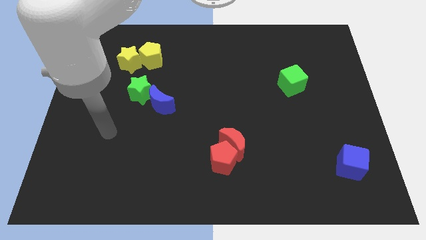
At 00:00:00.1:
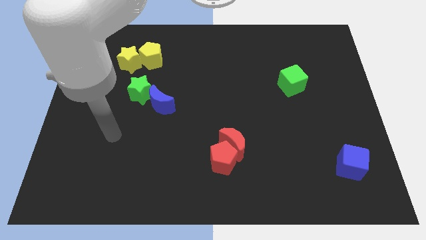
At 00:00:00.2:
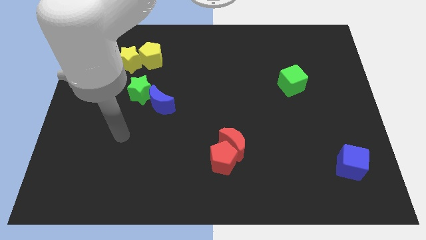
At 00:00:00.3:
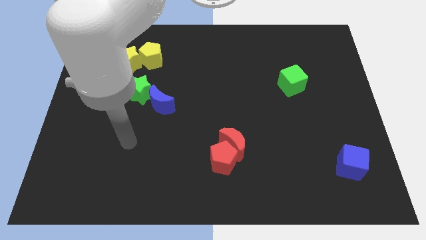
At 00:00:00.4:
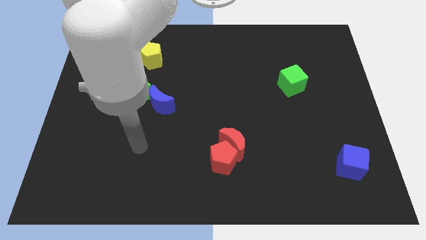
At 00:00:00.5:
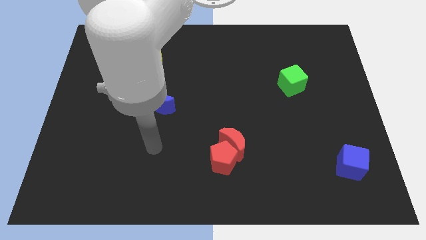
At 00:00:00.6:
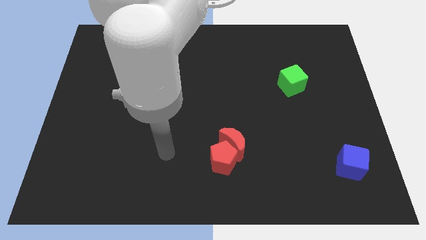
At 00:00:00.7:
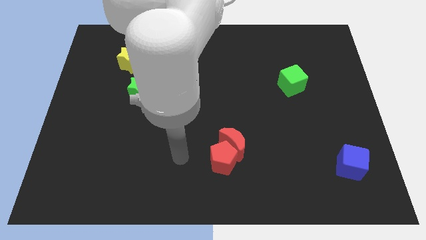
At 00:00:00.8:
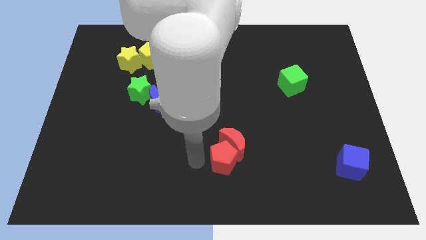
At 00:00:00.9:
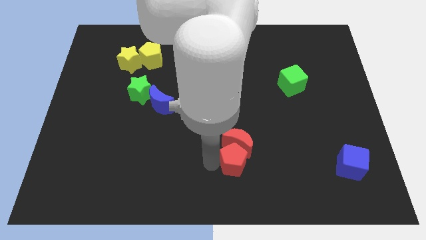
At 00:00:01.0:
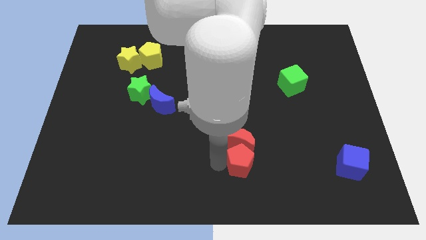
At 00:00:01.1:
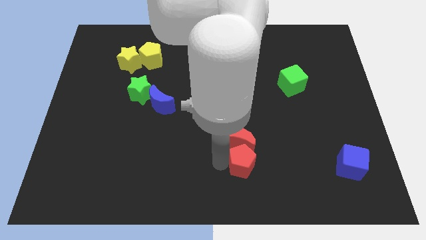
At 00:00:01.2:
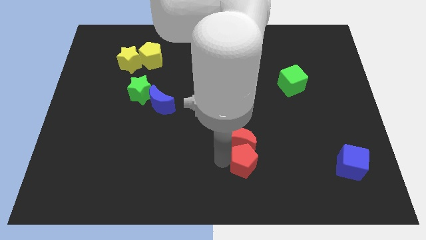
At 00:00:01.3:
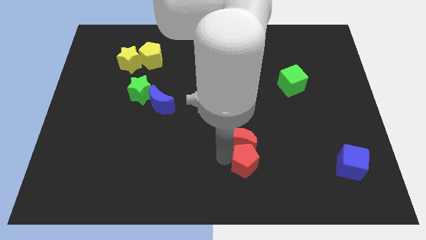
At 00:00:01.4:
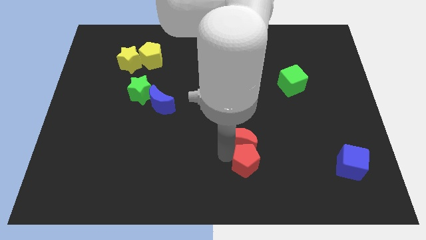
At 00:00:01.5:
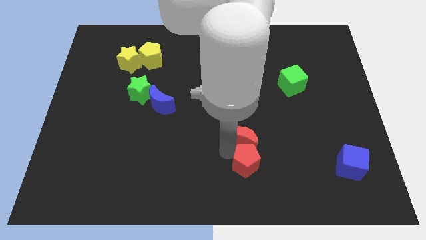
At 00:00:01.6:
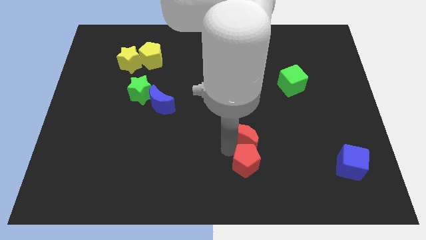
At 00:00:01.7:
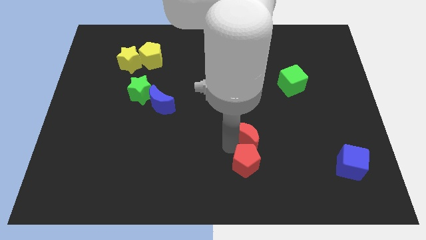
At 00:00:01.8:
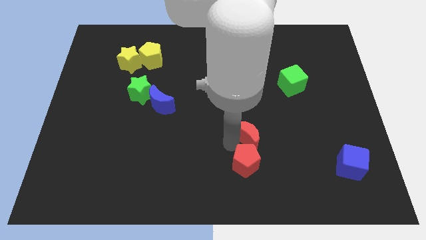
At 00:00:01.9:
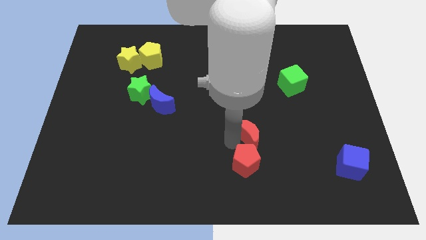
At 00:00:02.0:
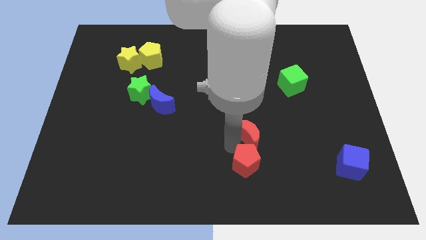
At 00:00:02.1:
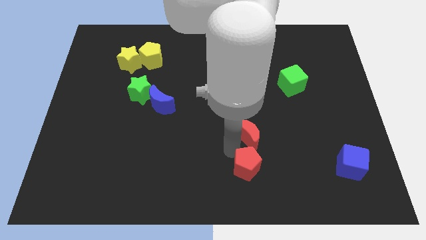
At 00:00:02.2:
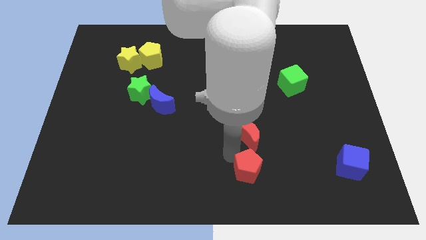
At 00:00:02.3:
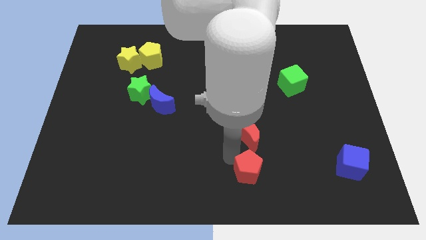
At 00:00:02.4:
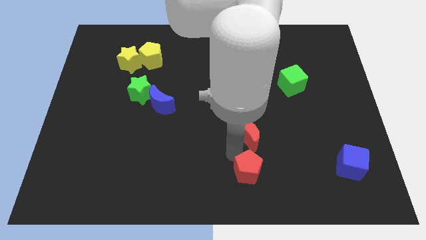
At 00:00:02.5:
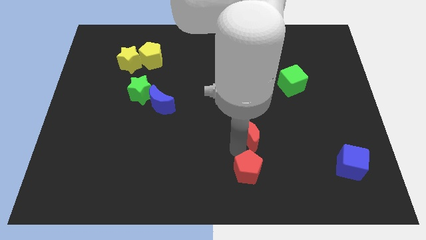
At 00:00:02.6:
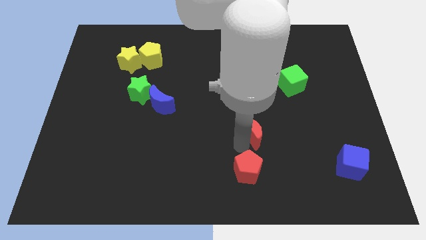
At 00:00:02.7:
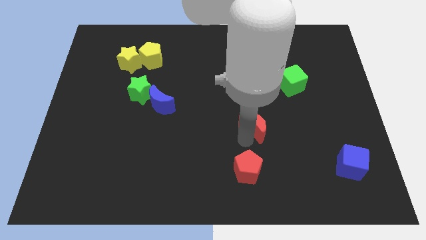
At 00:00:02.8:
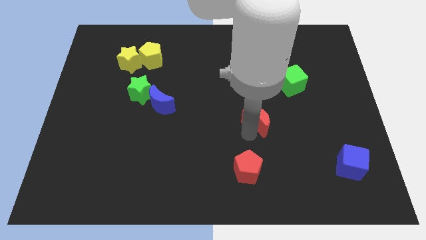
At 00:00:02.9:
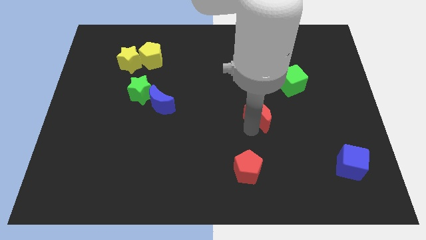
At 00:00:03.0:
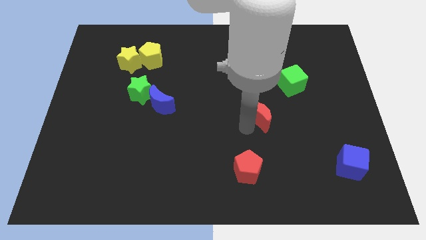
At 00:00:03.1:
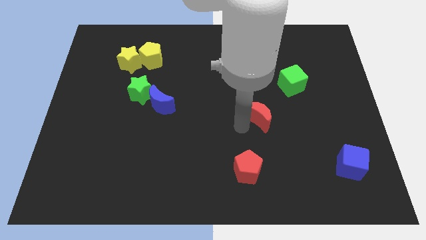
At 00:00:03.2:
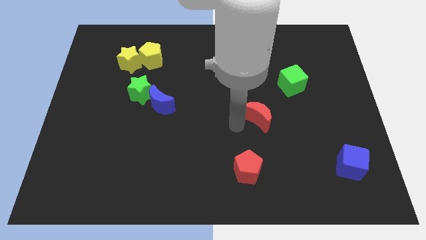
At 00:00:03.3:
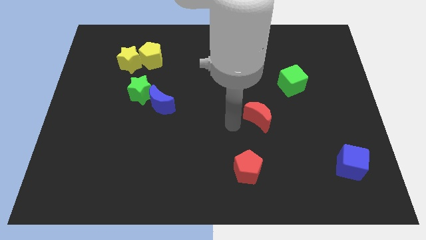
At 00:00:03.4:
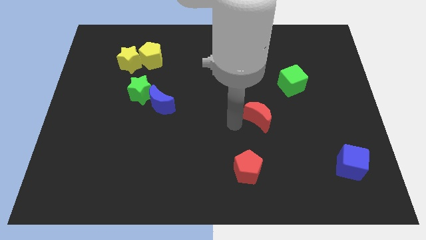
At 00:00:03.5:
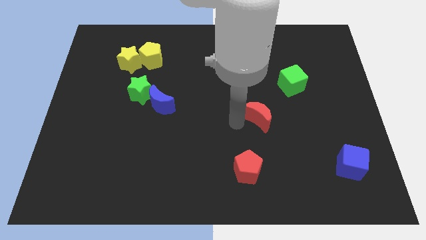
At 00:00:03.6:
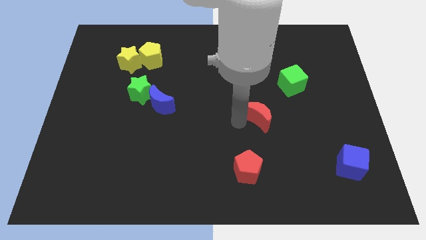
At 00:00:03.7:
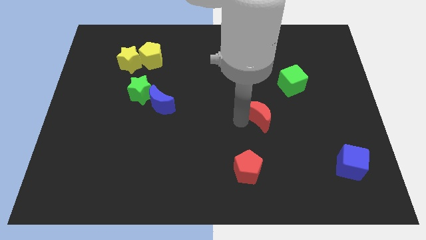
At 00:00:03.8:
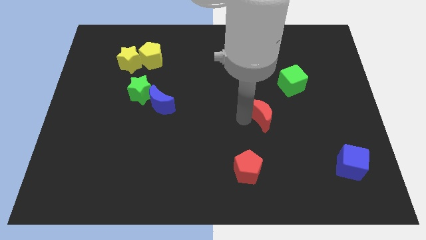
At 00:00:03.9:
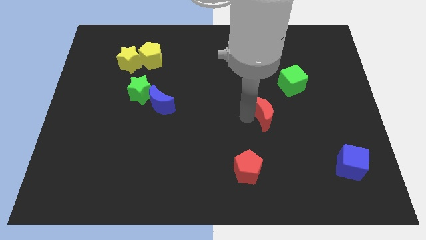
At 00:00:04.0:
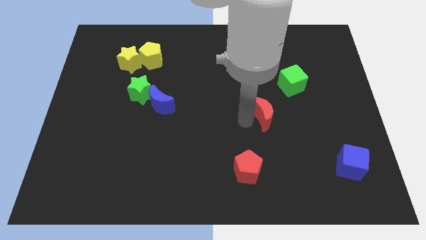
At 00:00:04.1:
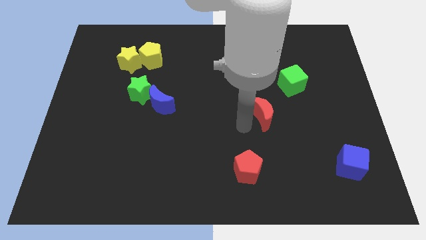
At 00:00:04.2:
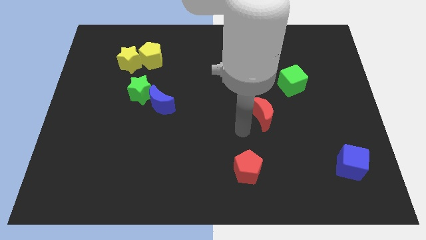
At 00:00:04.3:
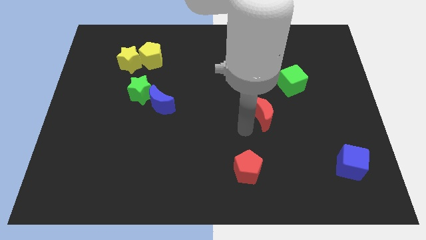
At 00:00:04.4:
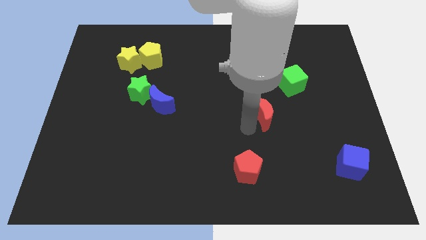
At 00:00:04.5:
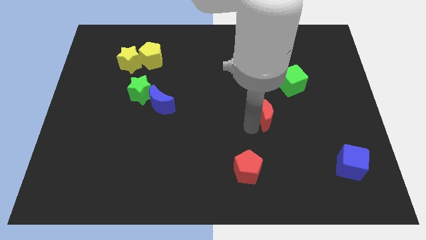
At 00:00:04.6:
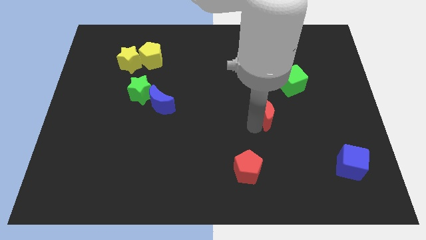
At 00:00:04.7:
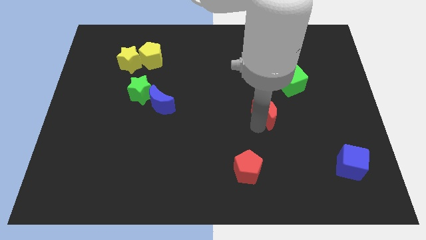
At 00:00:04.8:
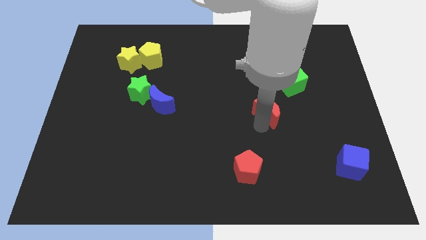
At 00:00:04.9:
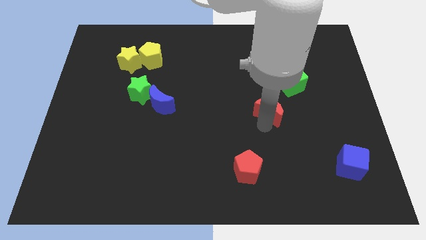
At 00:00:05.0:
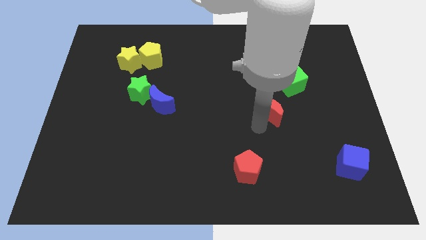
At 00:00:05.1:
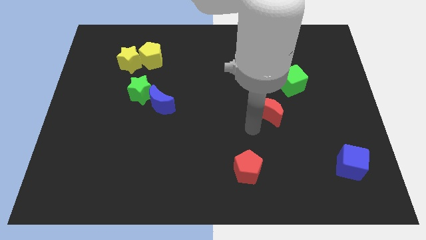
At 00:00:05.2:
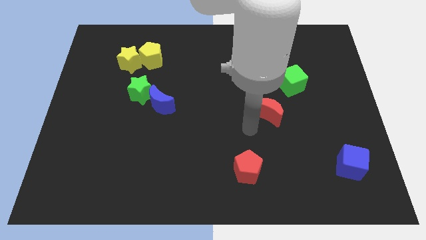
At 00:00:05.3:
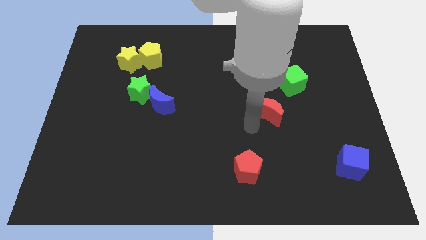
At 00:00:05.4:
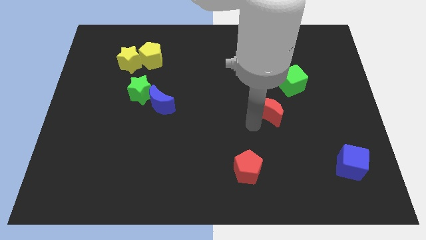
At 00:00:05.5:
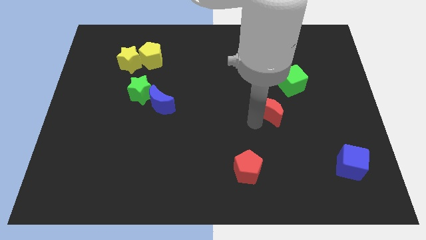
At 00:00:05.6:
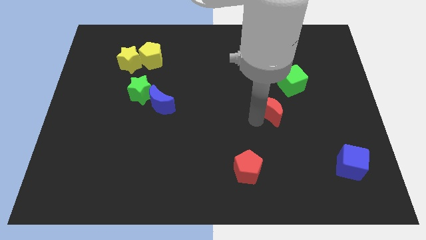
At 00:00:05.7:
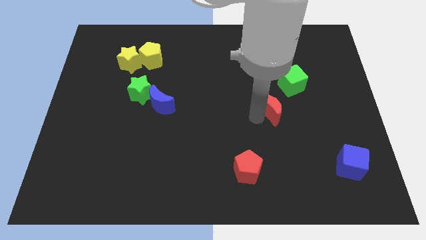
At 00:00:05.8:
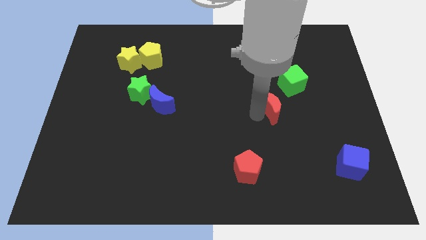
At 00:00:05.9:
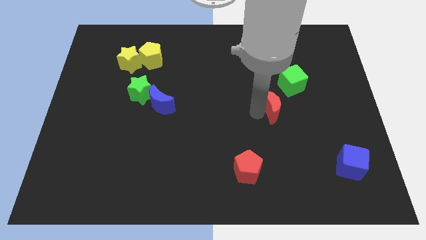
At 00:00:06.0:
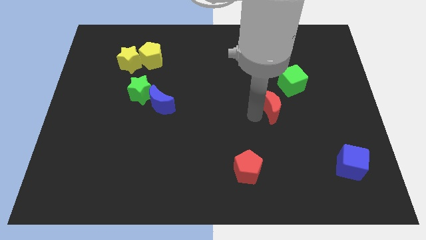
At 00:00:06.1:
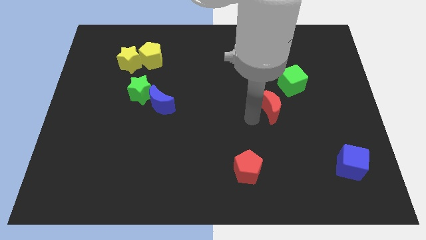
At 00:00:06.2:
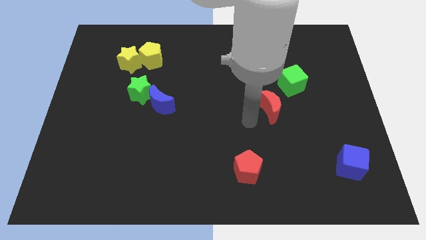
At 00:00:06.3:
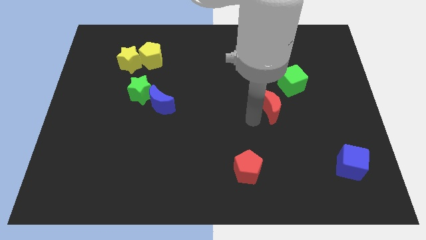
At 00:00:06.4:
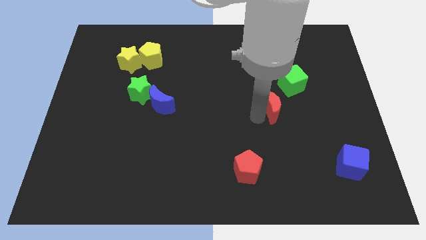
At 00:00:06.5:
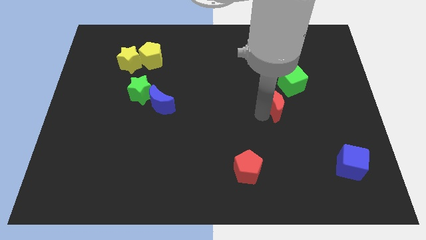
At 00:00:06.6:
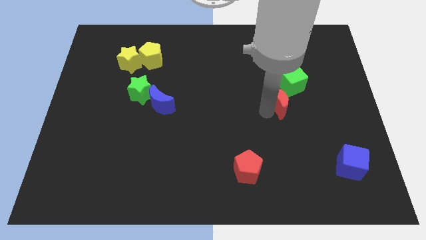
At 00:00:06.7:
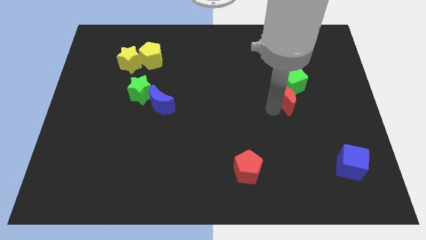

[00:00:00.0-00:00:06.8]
push the red moon towards the green cube
